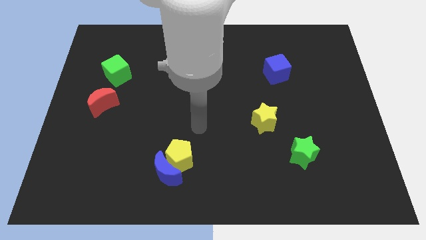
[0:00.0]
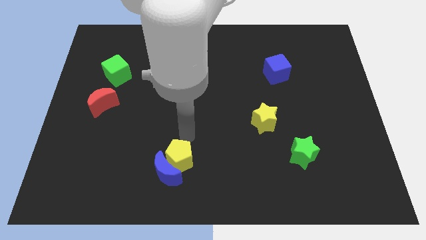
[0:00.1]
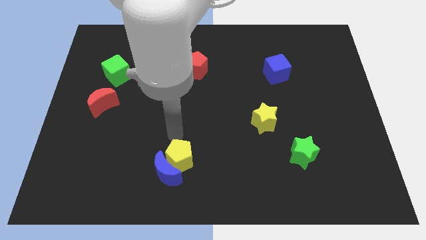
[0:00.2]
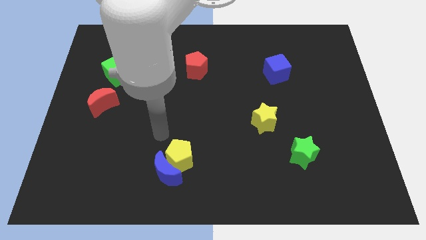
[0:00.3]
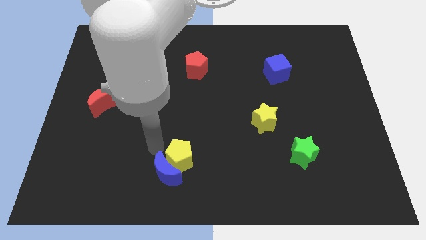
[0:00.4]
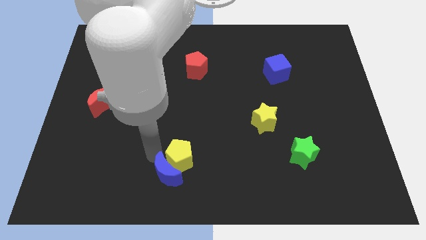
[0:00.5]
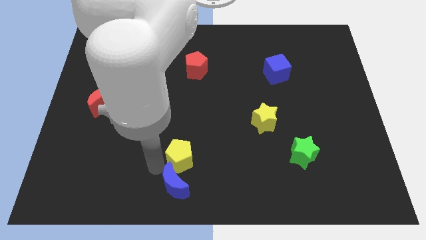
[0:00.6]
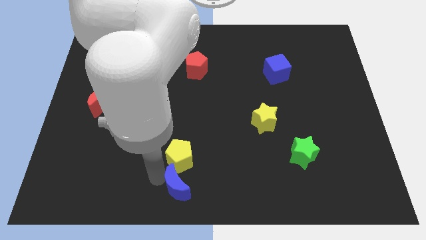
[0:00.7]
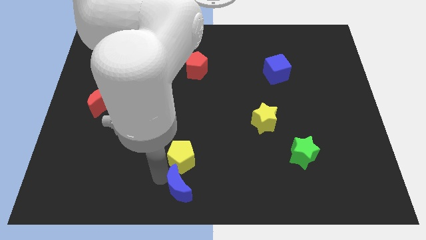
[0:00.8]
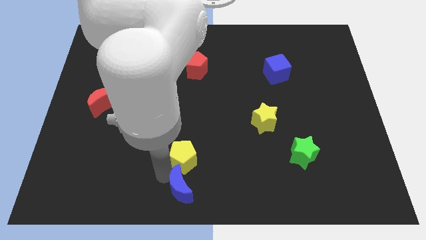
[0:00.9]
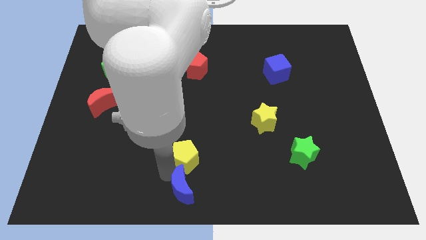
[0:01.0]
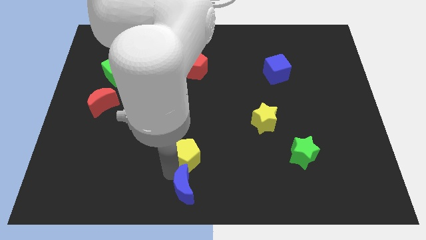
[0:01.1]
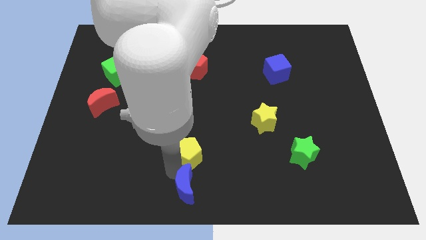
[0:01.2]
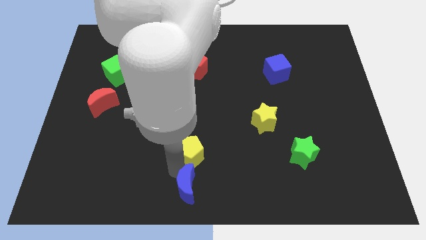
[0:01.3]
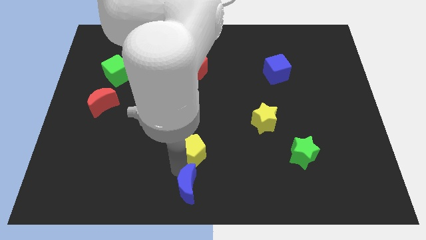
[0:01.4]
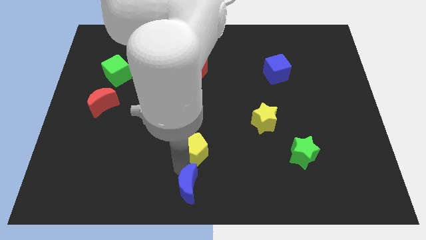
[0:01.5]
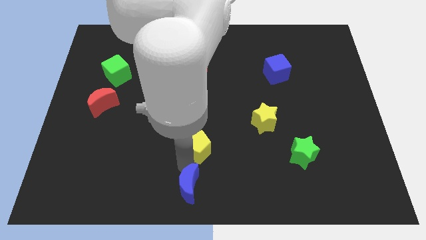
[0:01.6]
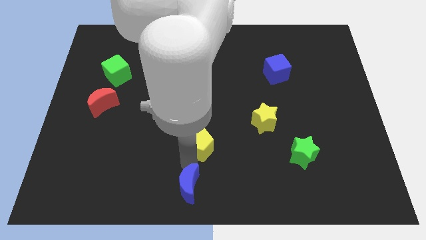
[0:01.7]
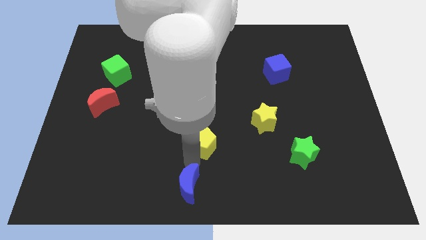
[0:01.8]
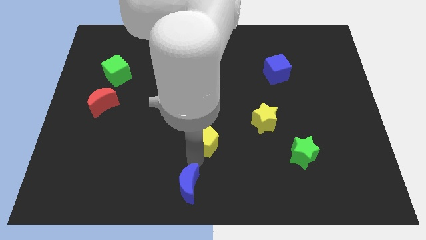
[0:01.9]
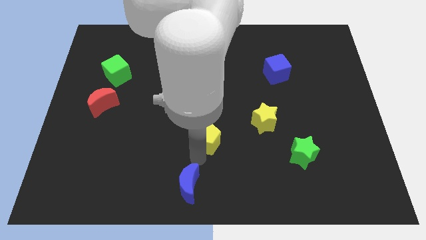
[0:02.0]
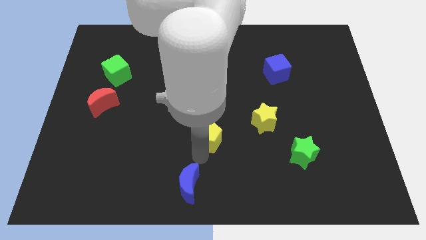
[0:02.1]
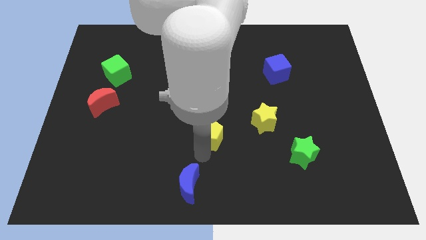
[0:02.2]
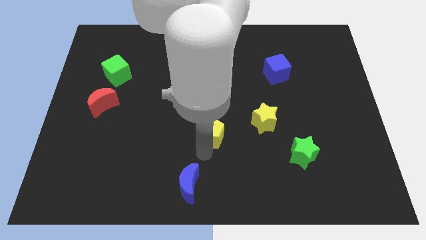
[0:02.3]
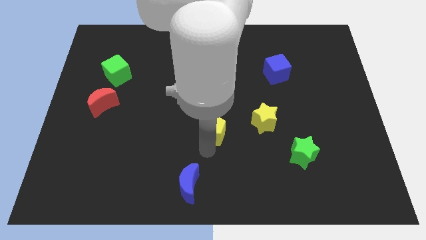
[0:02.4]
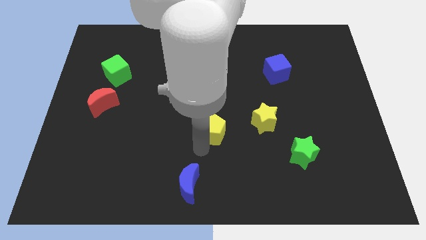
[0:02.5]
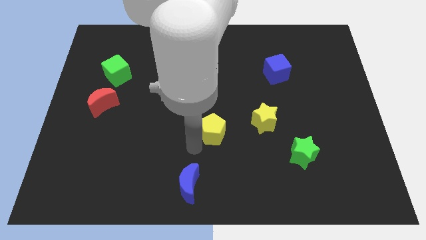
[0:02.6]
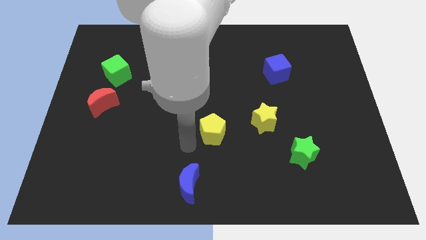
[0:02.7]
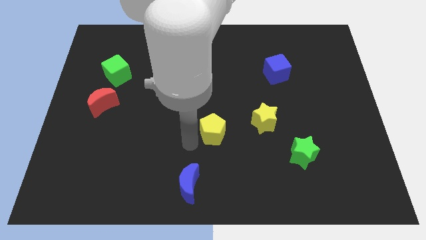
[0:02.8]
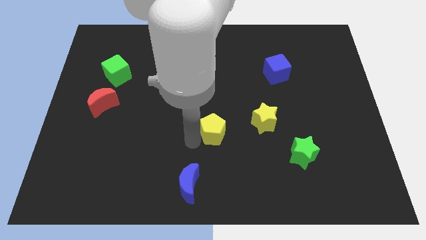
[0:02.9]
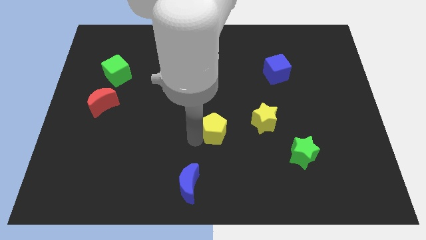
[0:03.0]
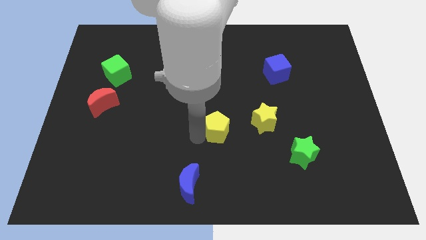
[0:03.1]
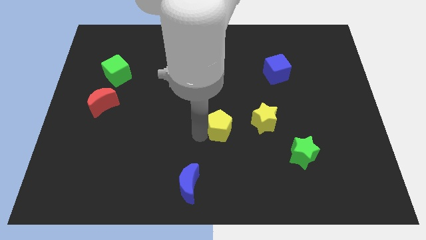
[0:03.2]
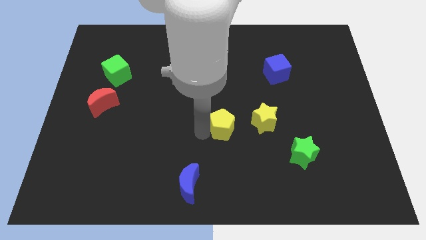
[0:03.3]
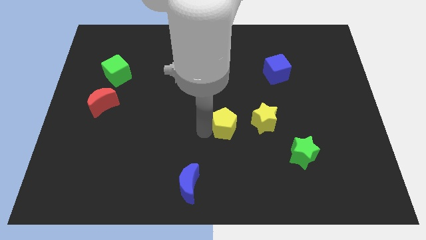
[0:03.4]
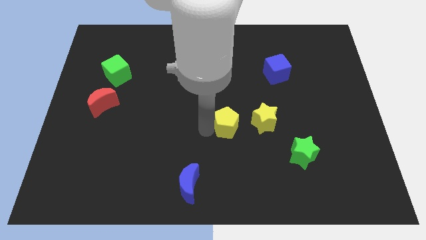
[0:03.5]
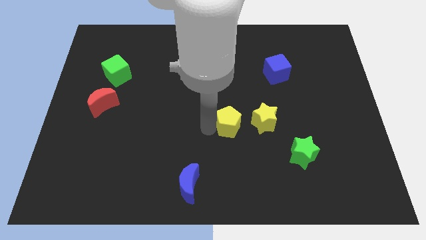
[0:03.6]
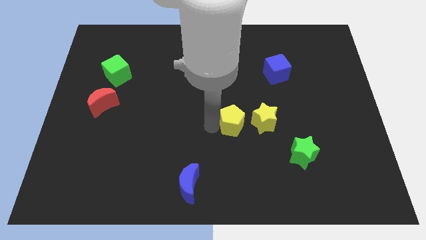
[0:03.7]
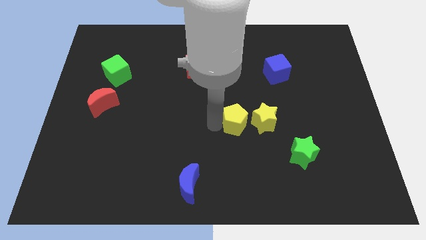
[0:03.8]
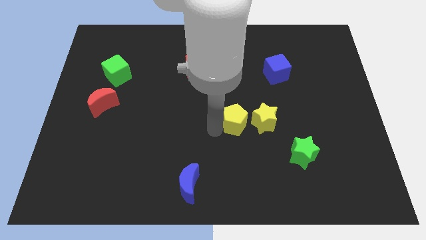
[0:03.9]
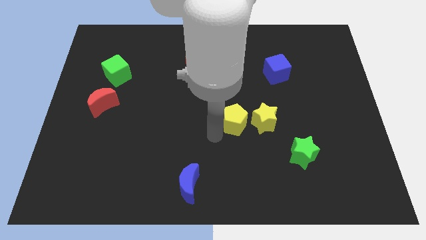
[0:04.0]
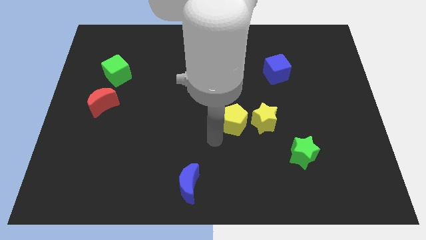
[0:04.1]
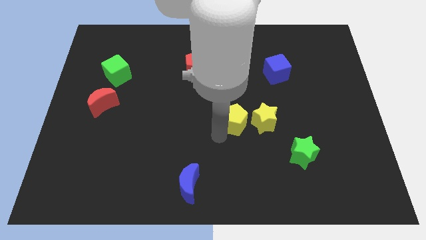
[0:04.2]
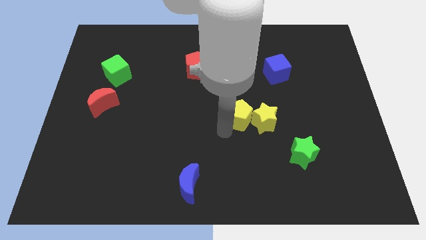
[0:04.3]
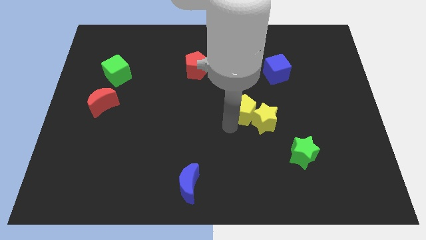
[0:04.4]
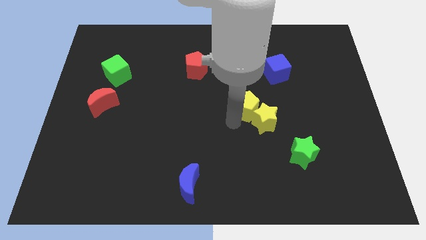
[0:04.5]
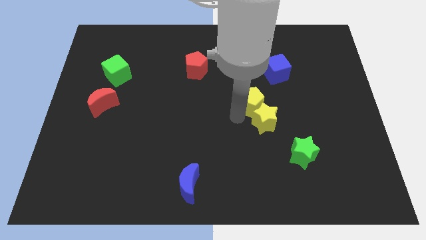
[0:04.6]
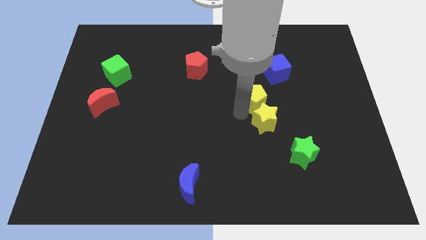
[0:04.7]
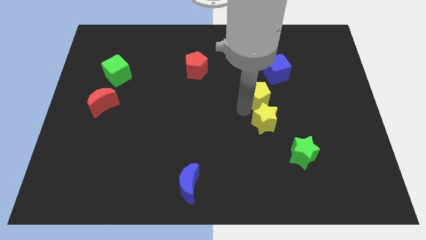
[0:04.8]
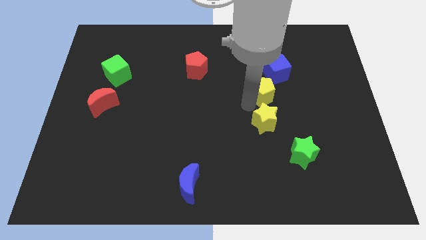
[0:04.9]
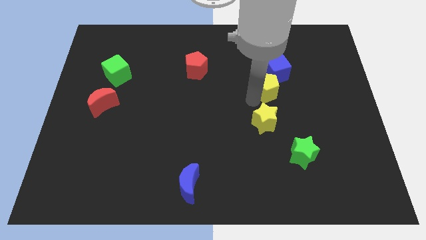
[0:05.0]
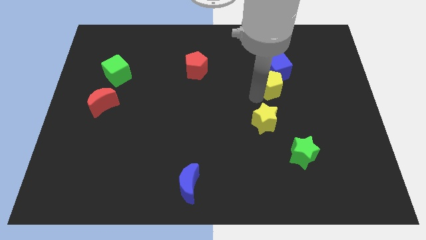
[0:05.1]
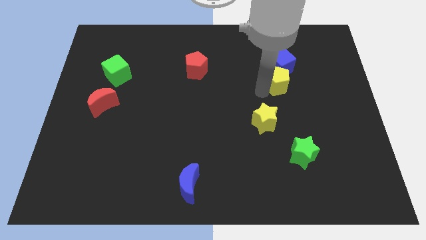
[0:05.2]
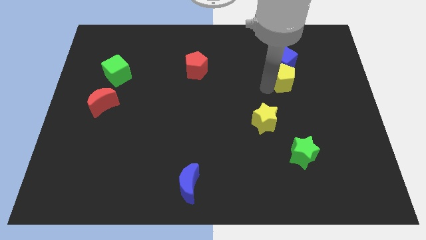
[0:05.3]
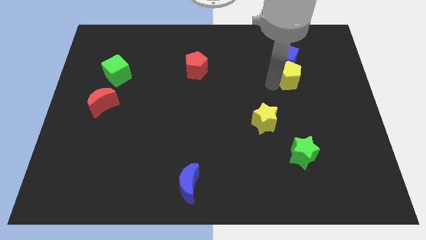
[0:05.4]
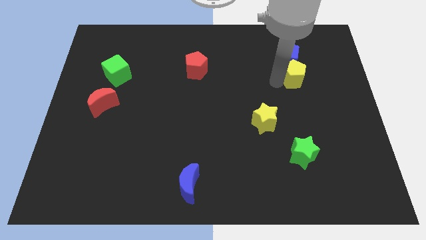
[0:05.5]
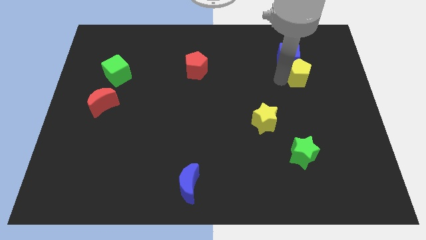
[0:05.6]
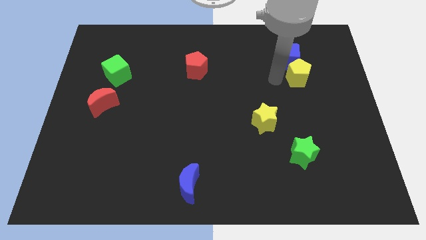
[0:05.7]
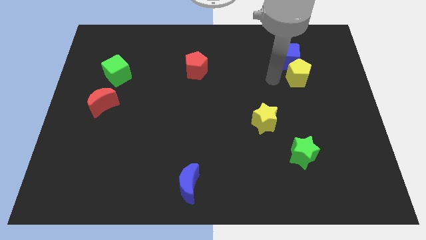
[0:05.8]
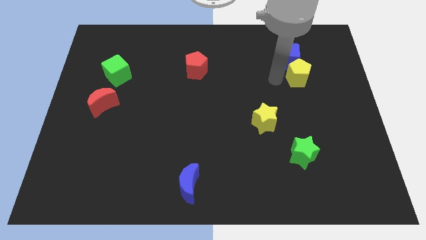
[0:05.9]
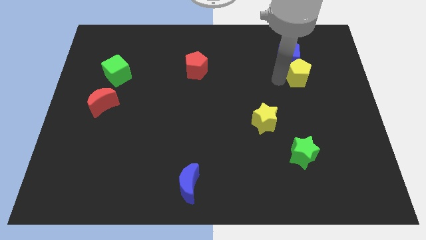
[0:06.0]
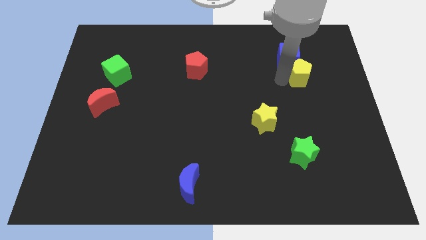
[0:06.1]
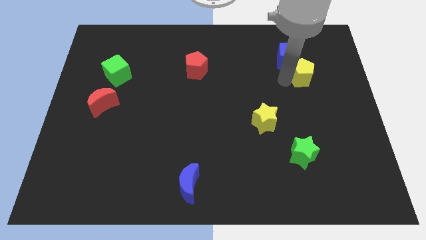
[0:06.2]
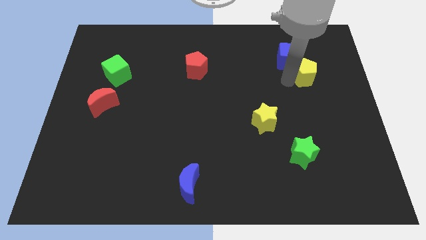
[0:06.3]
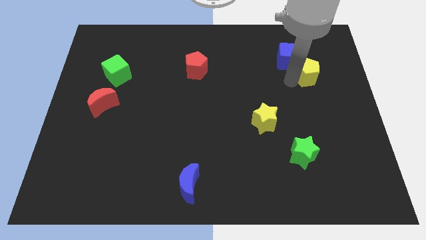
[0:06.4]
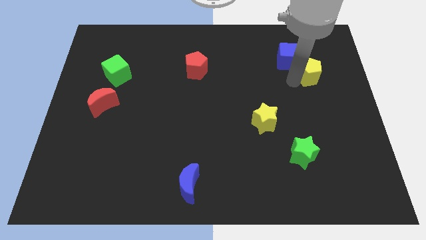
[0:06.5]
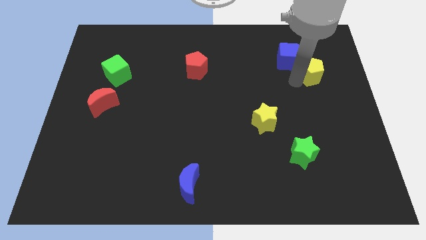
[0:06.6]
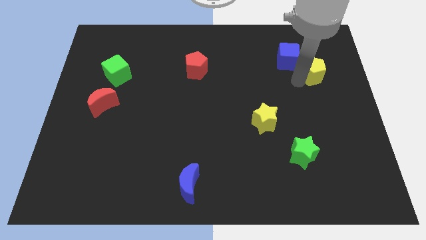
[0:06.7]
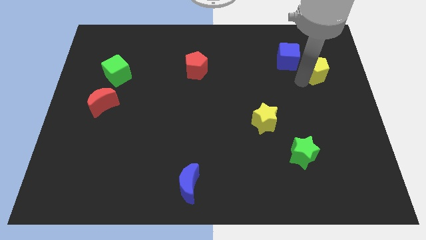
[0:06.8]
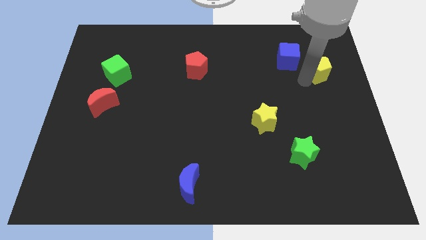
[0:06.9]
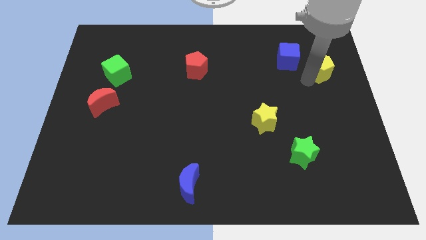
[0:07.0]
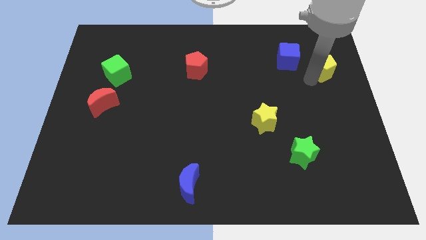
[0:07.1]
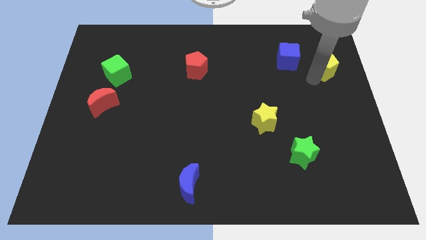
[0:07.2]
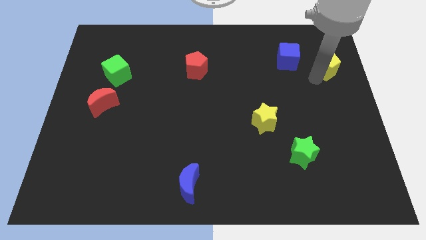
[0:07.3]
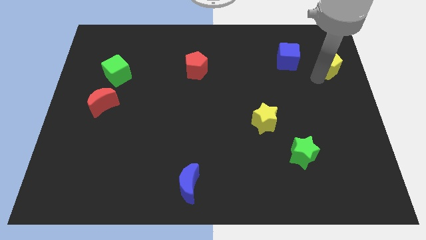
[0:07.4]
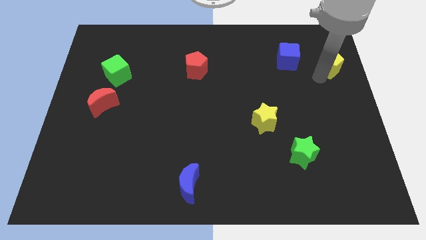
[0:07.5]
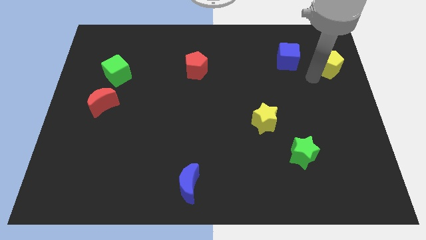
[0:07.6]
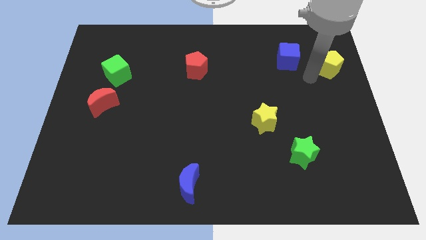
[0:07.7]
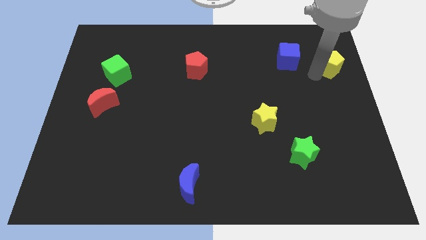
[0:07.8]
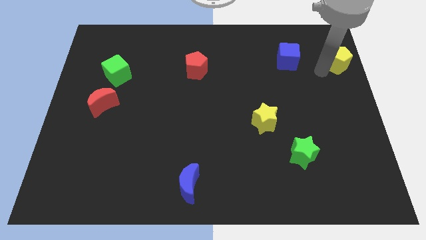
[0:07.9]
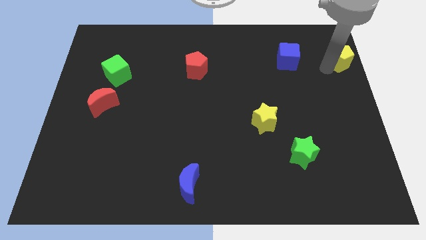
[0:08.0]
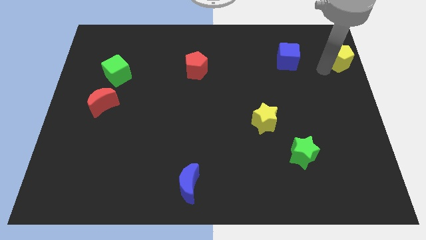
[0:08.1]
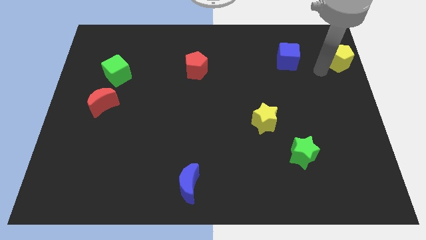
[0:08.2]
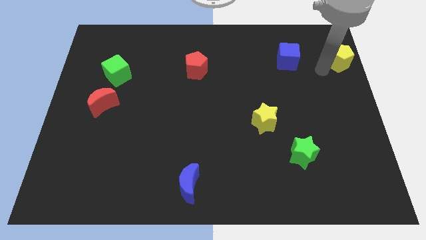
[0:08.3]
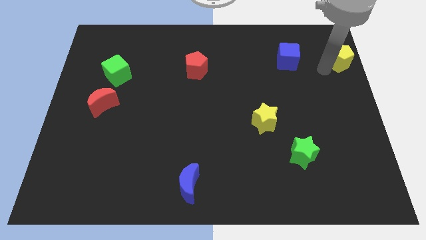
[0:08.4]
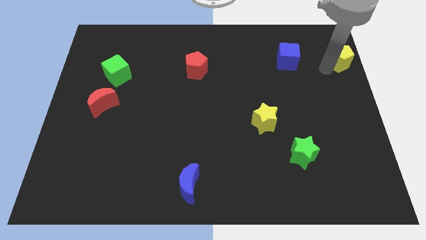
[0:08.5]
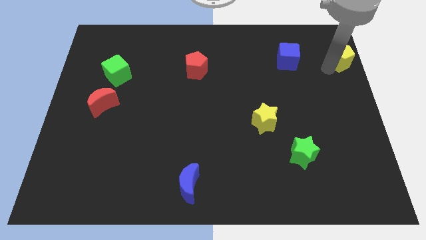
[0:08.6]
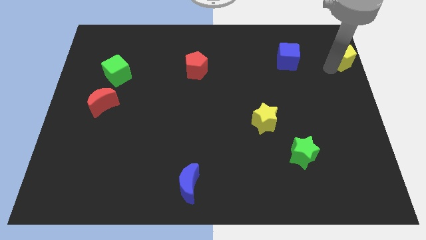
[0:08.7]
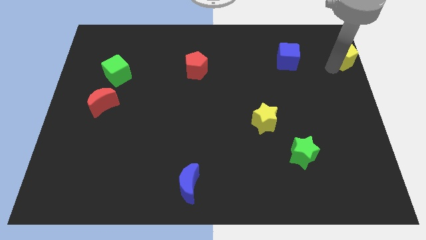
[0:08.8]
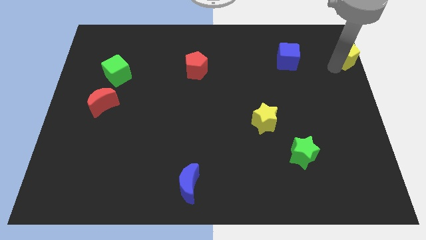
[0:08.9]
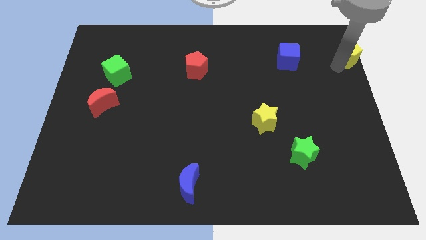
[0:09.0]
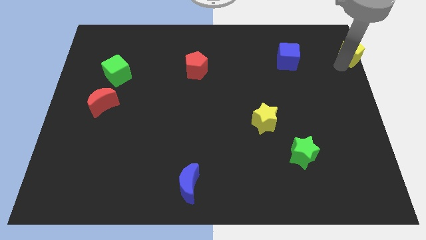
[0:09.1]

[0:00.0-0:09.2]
move the yellow pentagon to the top right of the board
